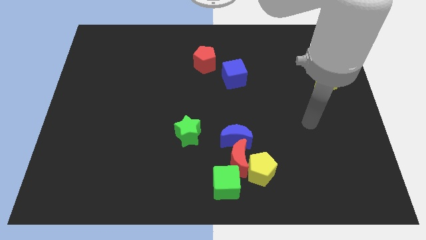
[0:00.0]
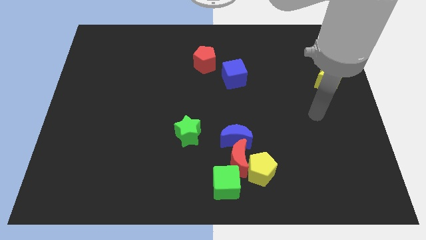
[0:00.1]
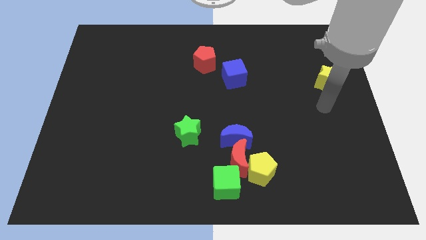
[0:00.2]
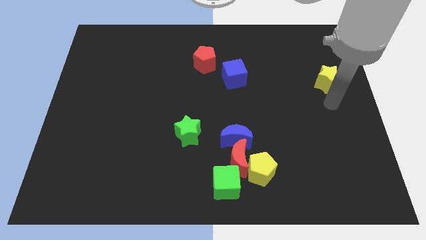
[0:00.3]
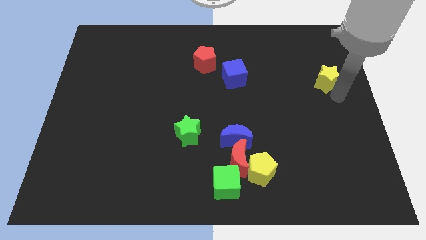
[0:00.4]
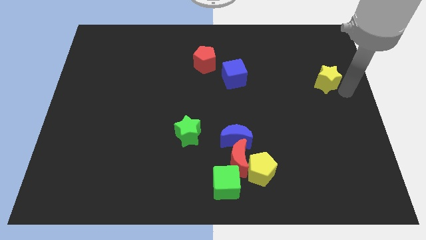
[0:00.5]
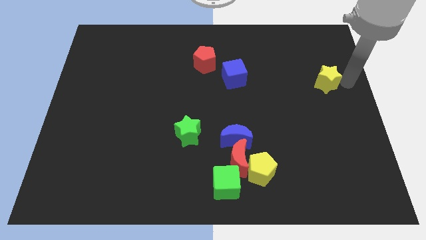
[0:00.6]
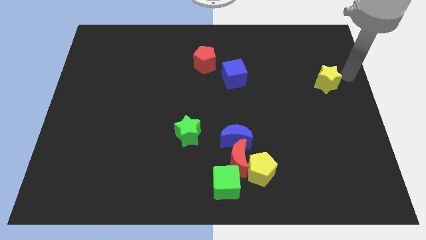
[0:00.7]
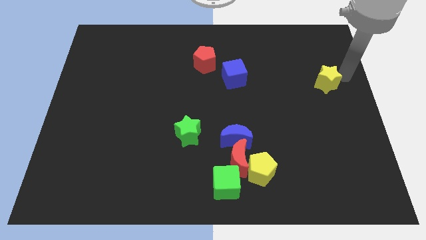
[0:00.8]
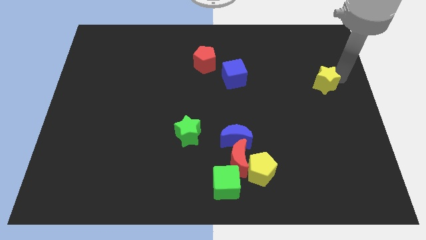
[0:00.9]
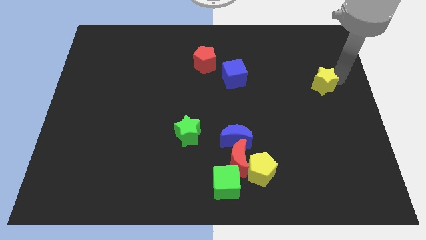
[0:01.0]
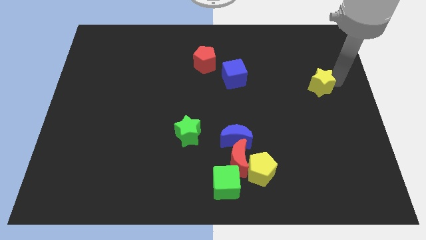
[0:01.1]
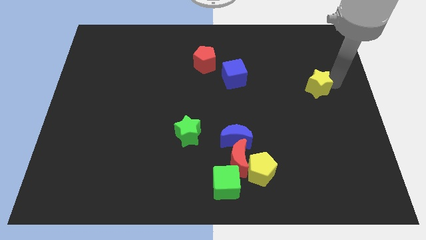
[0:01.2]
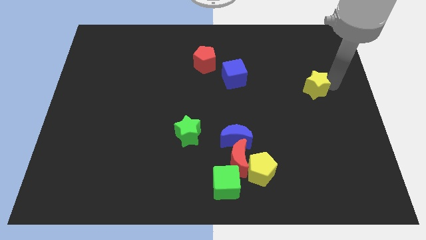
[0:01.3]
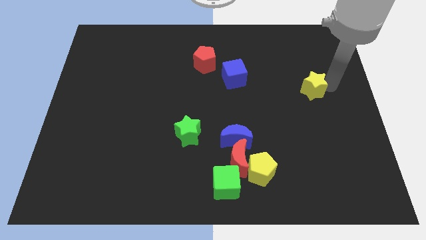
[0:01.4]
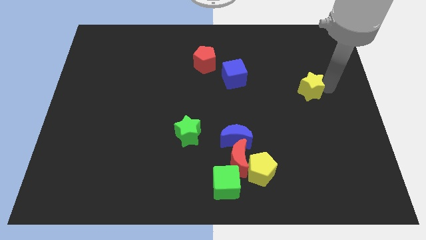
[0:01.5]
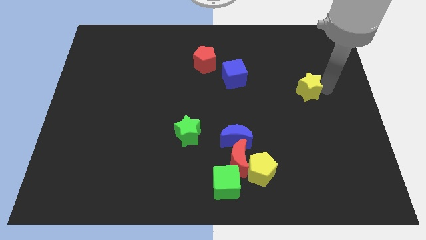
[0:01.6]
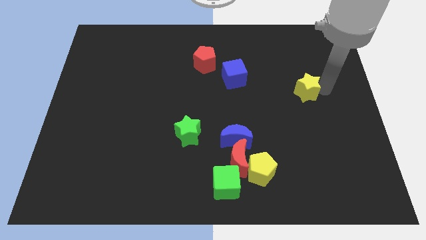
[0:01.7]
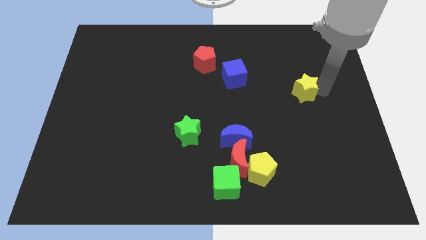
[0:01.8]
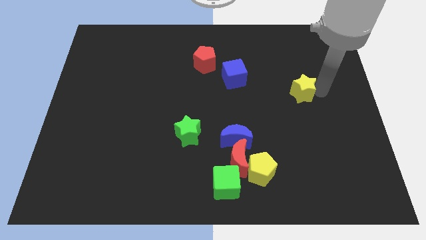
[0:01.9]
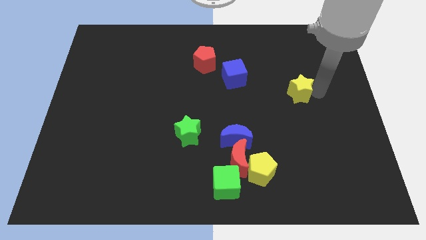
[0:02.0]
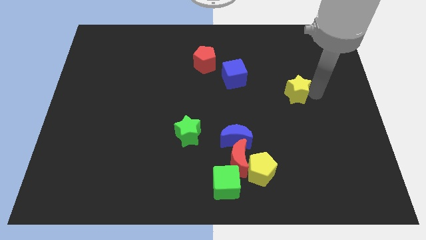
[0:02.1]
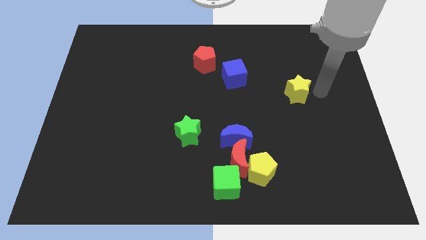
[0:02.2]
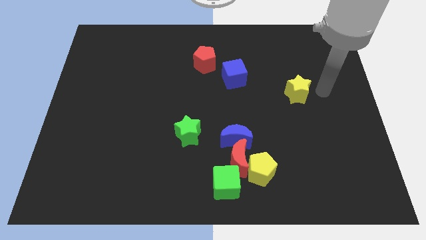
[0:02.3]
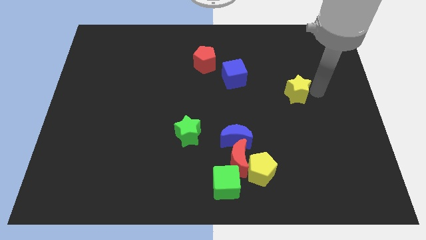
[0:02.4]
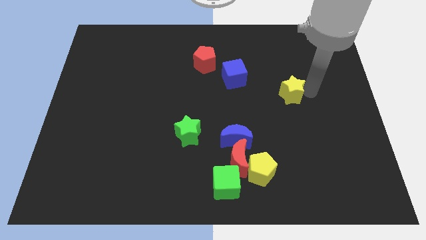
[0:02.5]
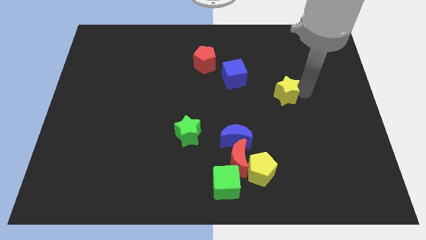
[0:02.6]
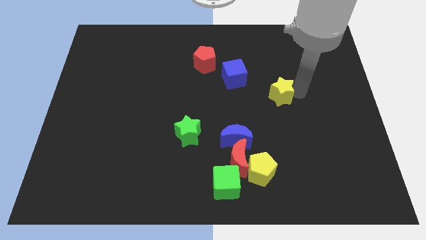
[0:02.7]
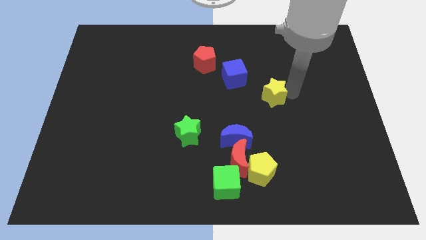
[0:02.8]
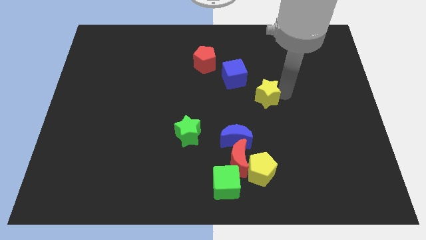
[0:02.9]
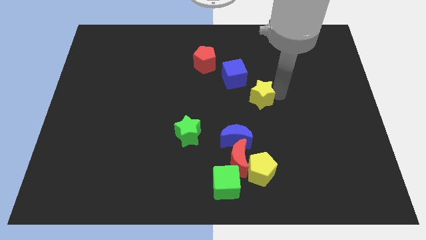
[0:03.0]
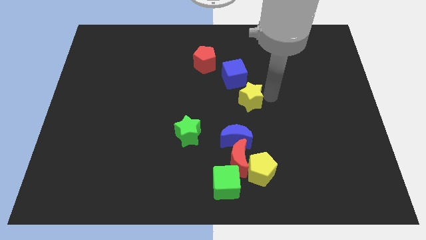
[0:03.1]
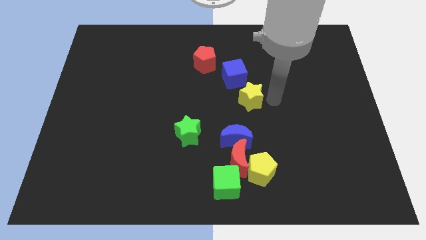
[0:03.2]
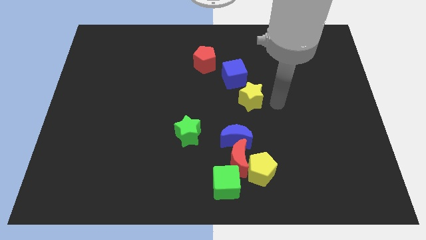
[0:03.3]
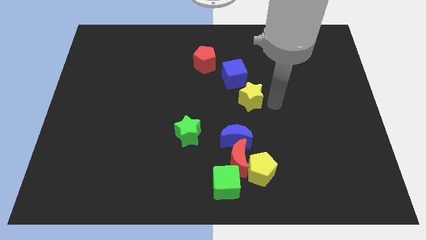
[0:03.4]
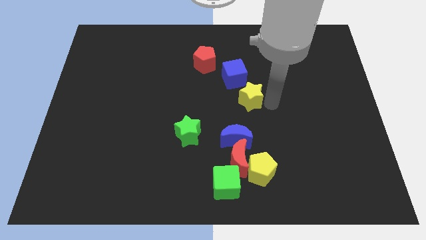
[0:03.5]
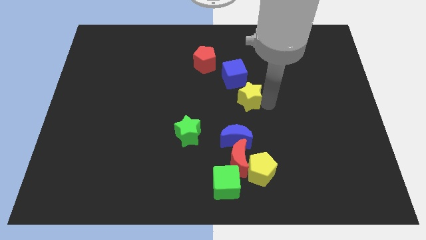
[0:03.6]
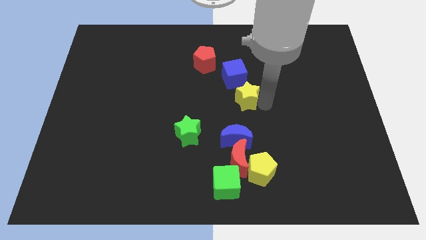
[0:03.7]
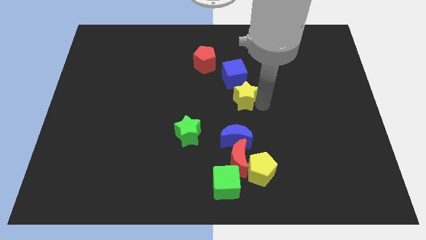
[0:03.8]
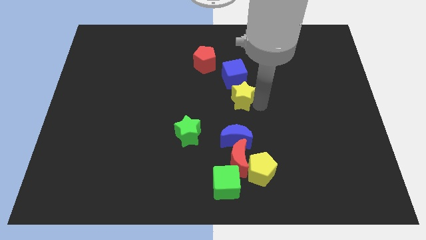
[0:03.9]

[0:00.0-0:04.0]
move the yellow star to the left

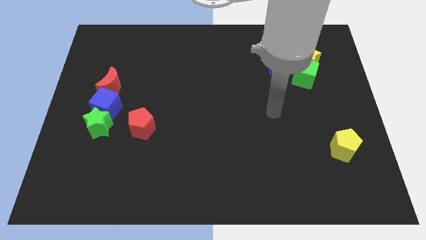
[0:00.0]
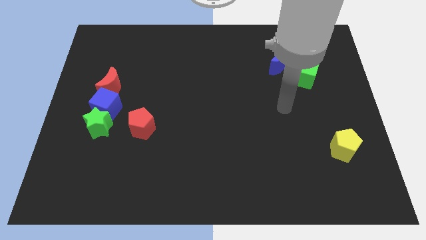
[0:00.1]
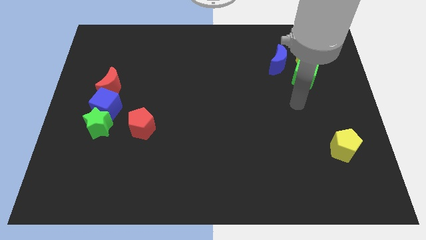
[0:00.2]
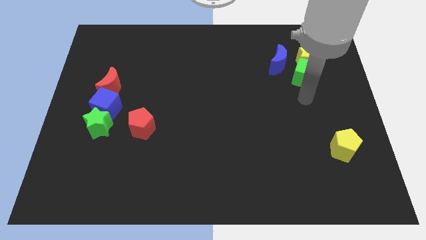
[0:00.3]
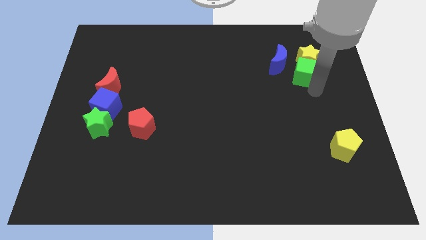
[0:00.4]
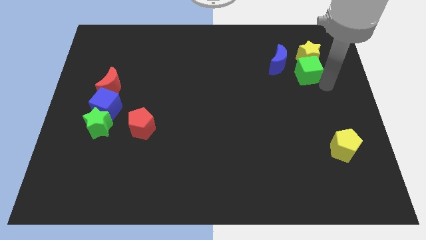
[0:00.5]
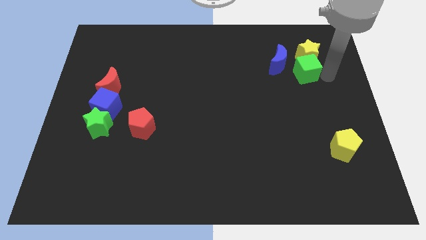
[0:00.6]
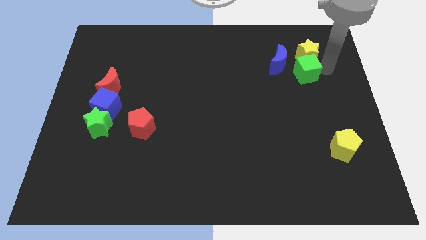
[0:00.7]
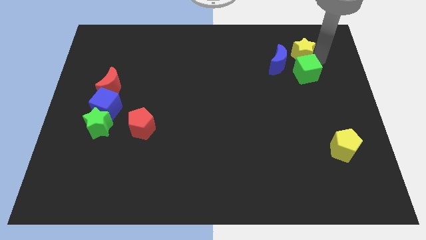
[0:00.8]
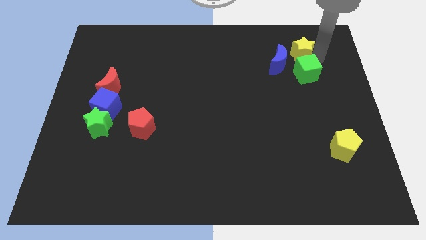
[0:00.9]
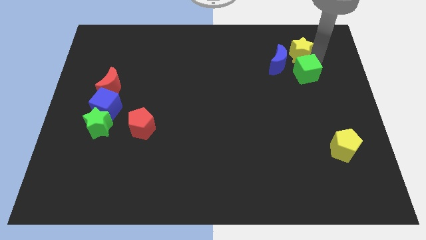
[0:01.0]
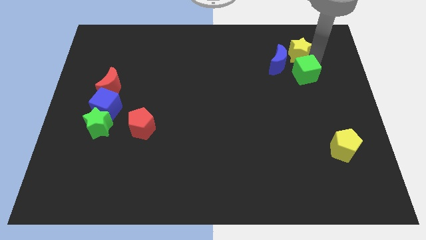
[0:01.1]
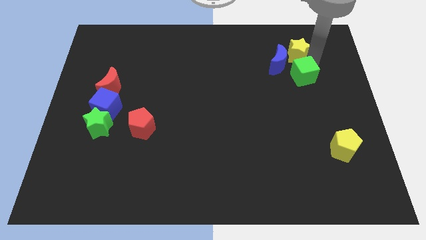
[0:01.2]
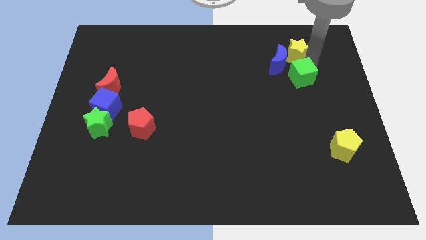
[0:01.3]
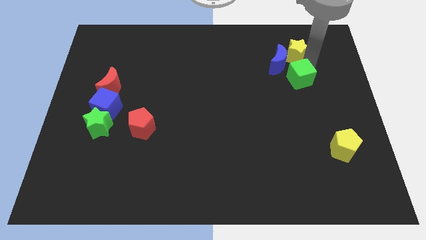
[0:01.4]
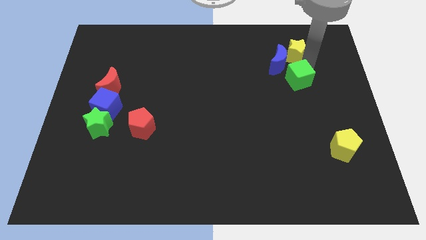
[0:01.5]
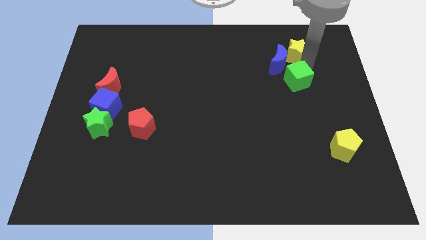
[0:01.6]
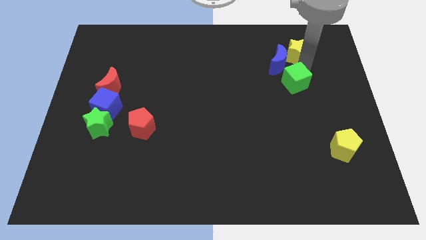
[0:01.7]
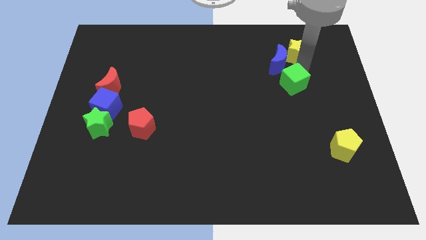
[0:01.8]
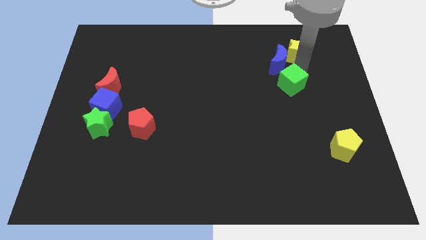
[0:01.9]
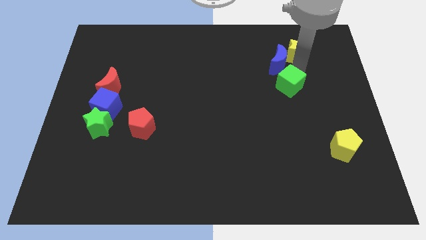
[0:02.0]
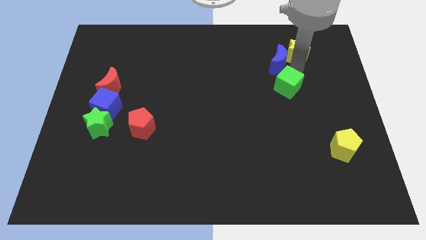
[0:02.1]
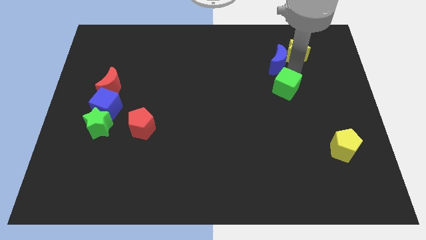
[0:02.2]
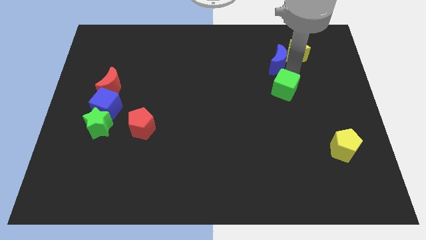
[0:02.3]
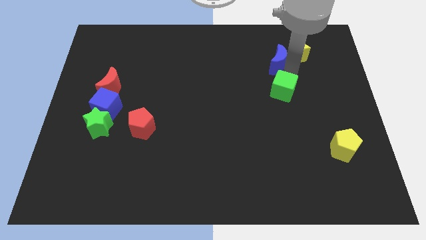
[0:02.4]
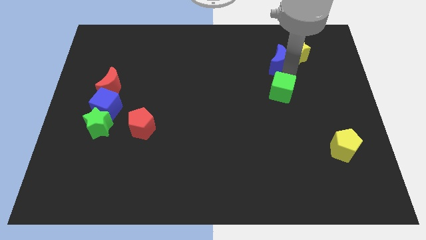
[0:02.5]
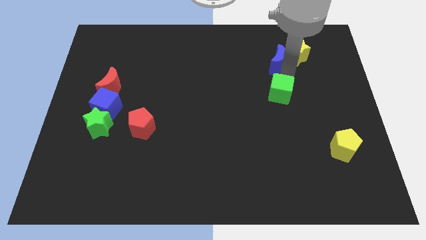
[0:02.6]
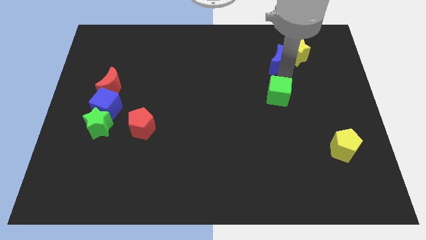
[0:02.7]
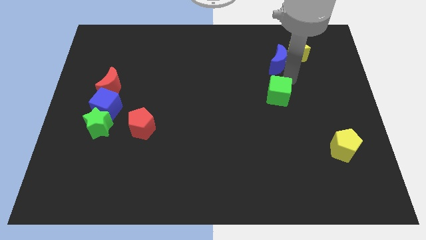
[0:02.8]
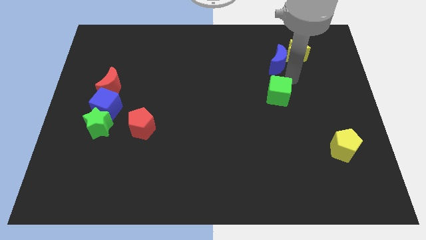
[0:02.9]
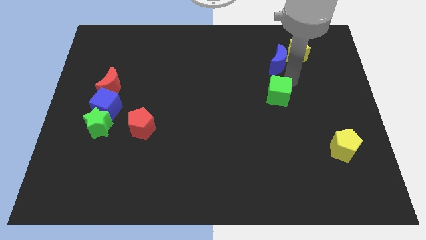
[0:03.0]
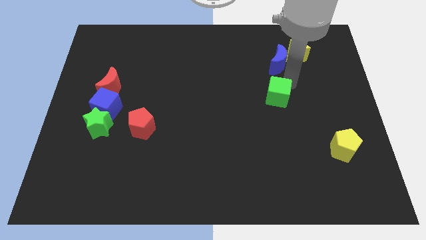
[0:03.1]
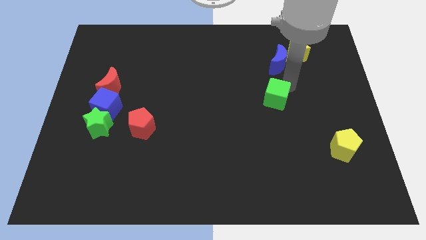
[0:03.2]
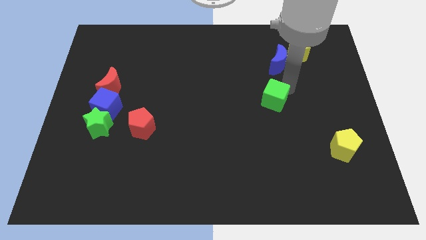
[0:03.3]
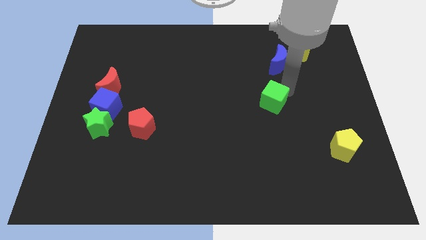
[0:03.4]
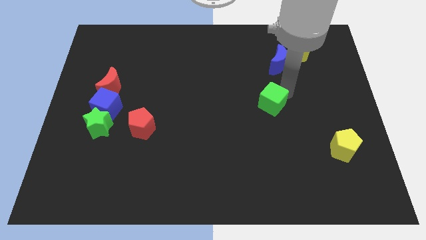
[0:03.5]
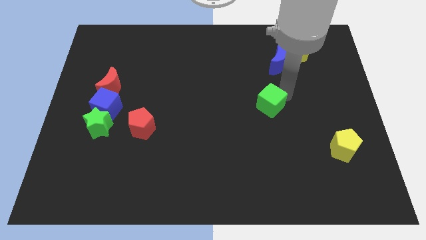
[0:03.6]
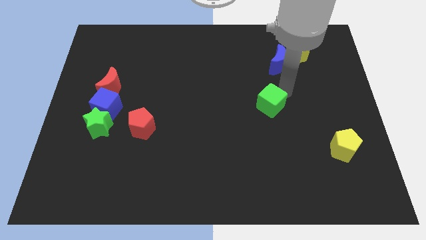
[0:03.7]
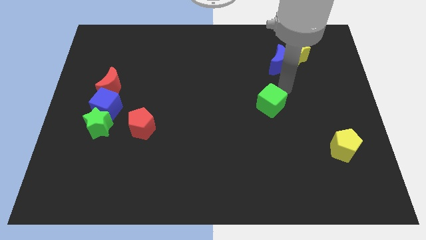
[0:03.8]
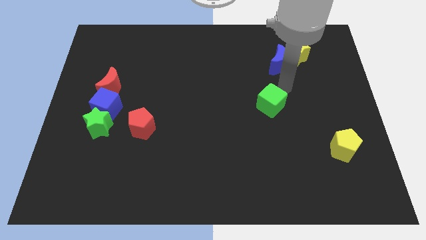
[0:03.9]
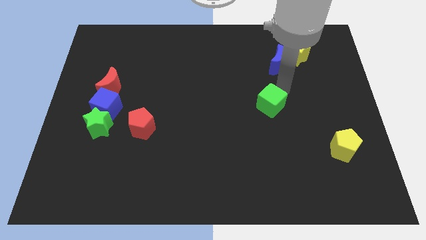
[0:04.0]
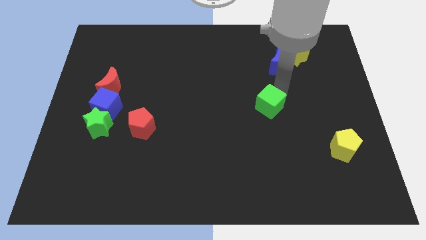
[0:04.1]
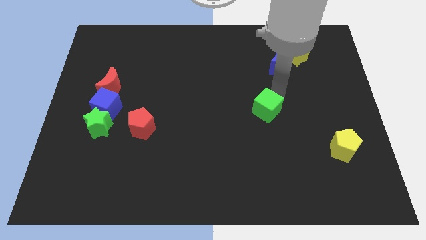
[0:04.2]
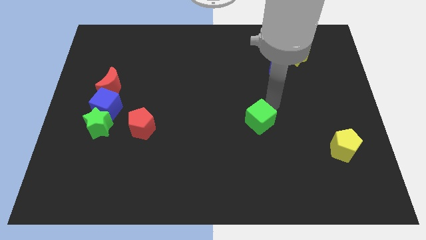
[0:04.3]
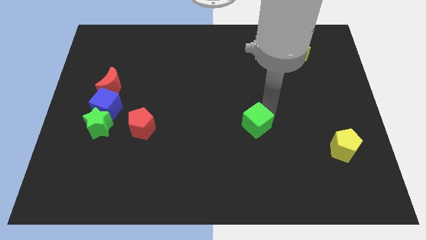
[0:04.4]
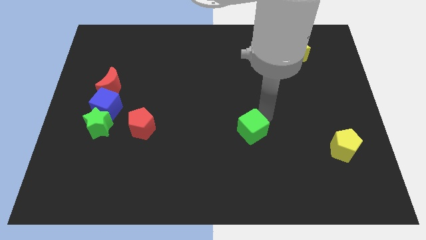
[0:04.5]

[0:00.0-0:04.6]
move the green cube downwards and left
